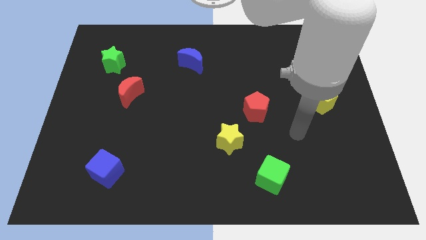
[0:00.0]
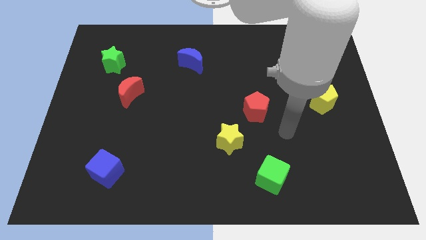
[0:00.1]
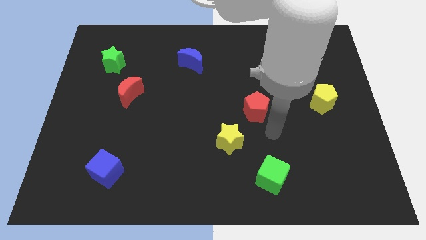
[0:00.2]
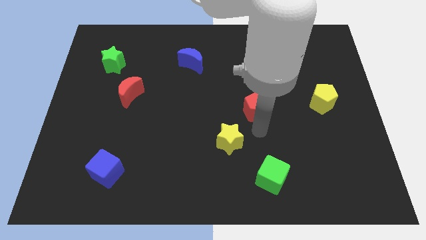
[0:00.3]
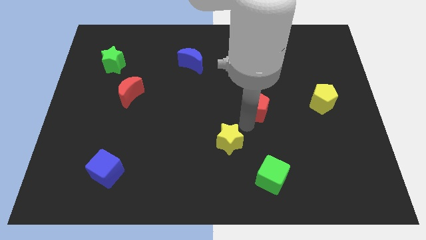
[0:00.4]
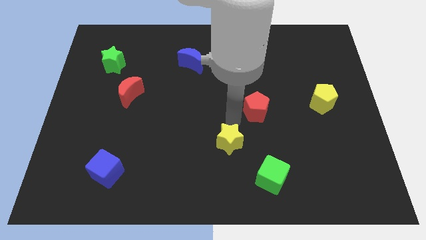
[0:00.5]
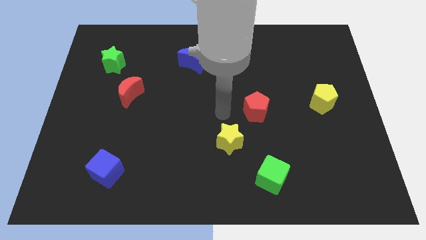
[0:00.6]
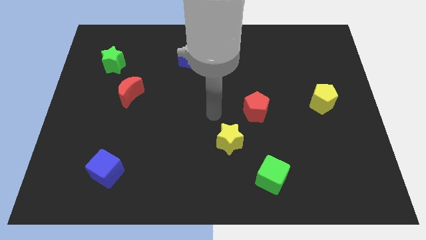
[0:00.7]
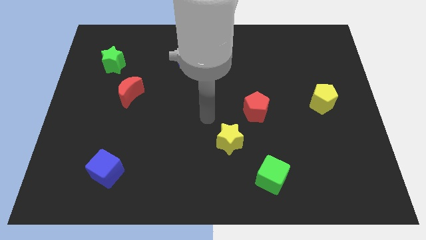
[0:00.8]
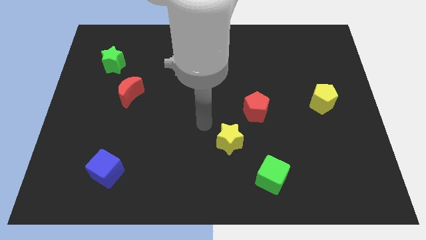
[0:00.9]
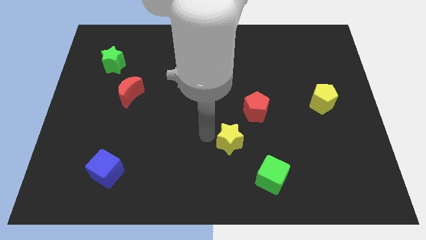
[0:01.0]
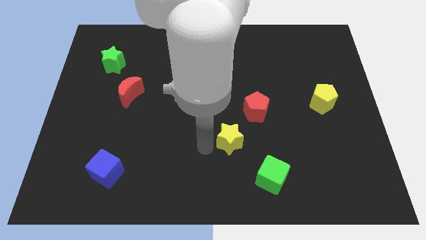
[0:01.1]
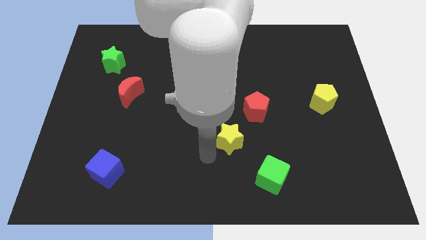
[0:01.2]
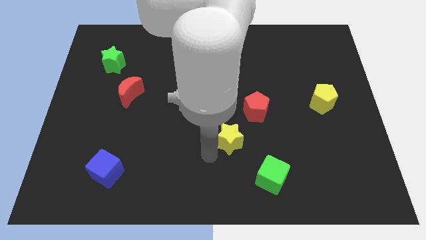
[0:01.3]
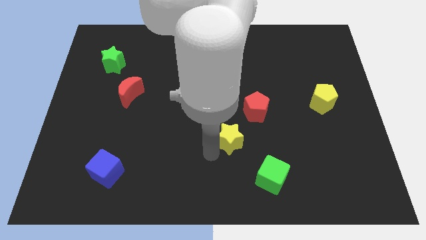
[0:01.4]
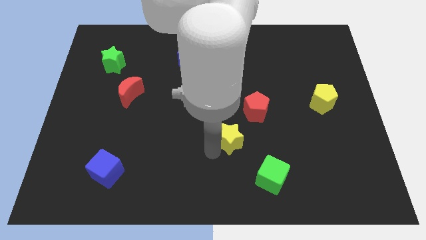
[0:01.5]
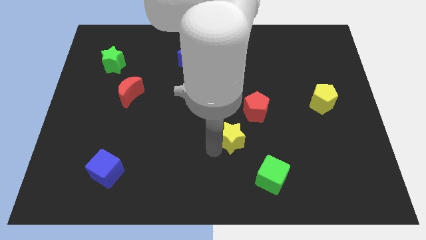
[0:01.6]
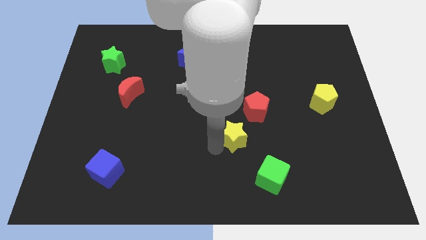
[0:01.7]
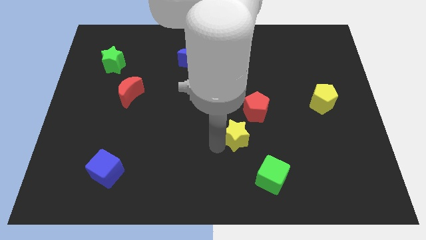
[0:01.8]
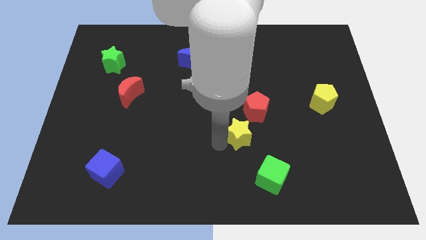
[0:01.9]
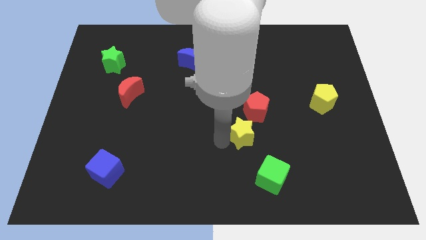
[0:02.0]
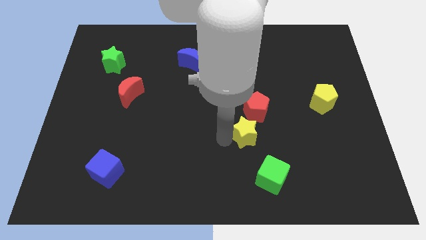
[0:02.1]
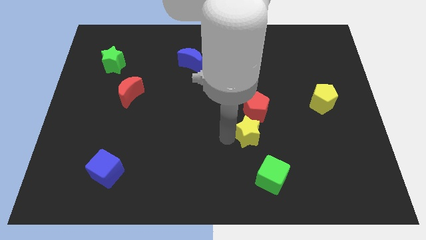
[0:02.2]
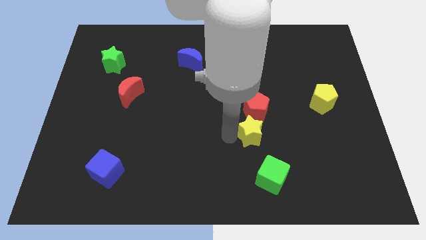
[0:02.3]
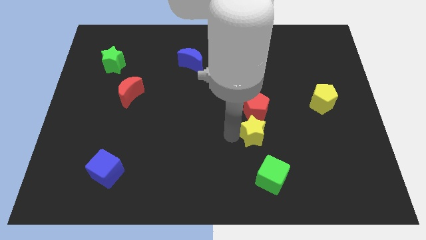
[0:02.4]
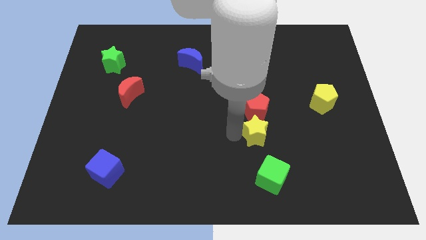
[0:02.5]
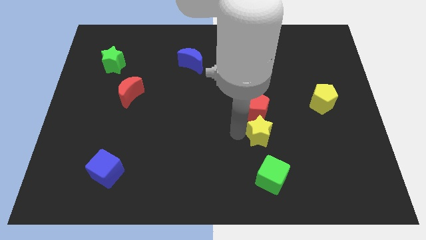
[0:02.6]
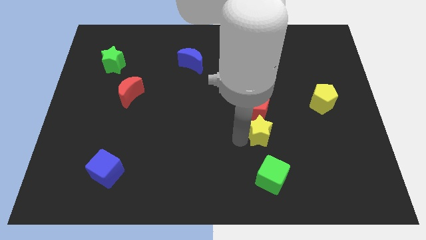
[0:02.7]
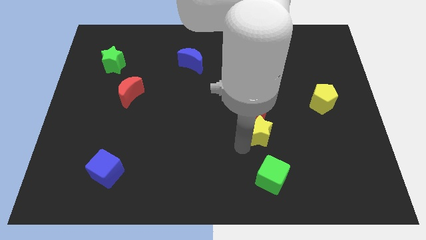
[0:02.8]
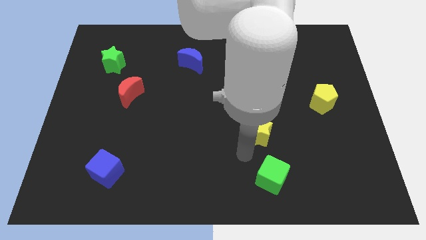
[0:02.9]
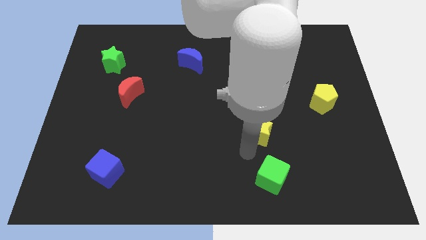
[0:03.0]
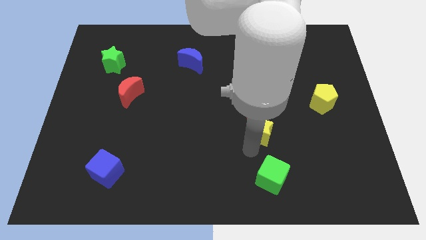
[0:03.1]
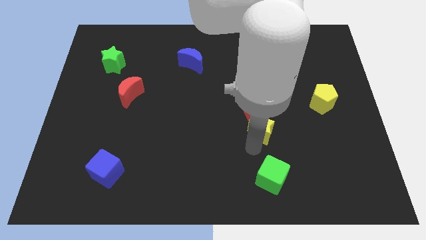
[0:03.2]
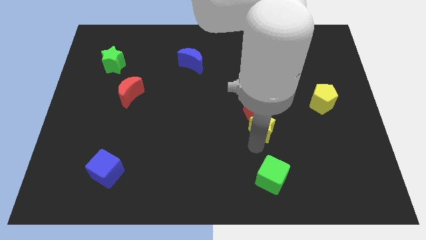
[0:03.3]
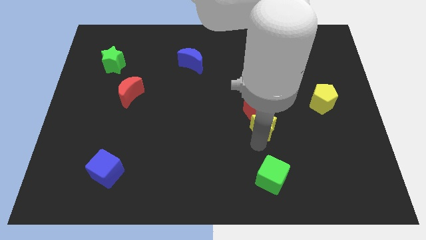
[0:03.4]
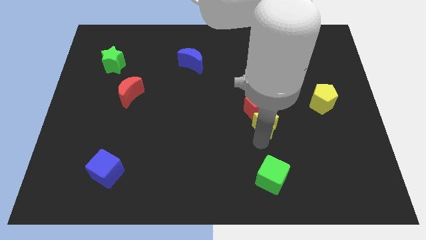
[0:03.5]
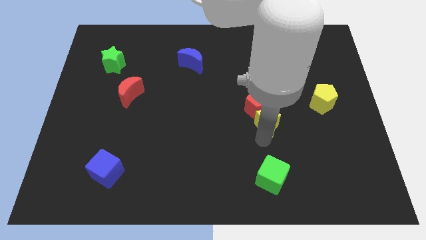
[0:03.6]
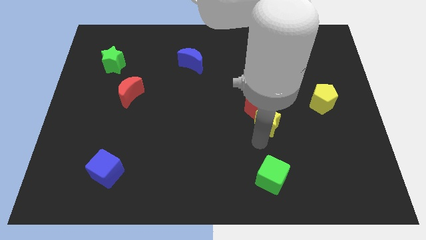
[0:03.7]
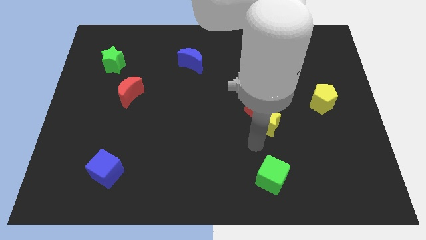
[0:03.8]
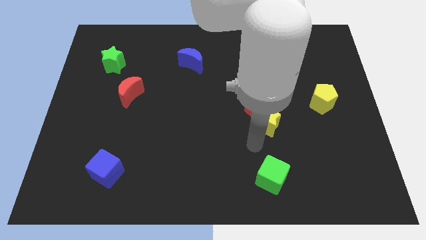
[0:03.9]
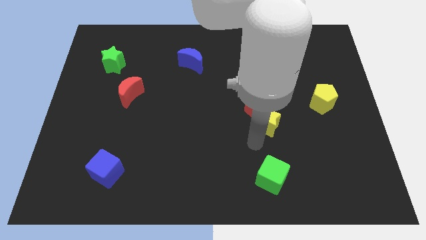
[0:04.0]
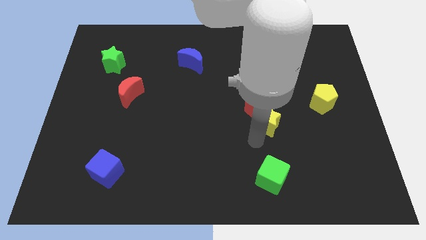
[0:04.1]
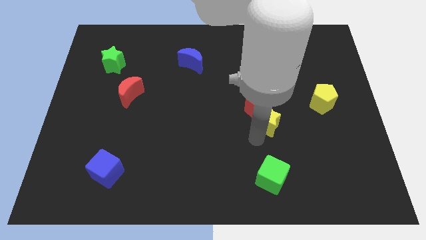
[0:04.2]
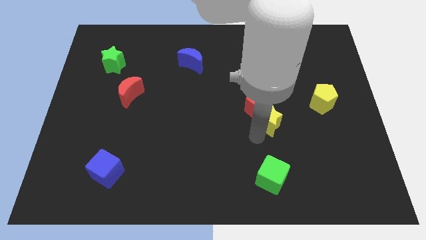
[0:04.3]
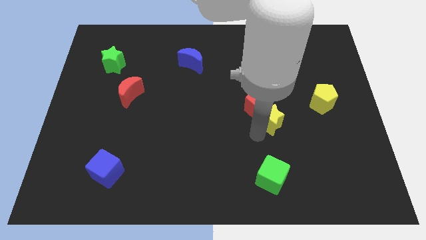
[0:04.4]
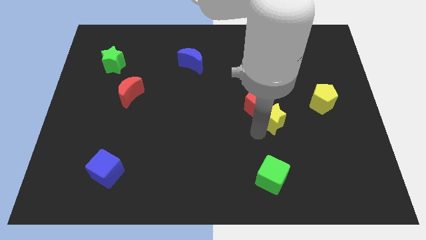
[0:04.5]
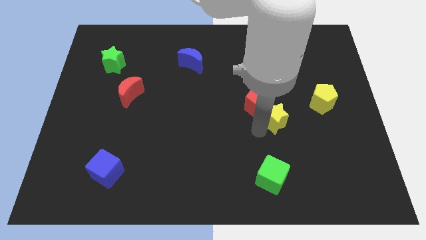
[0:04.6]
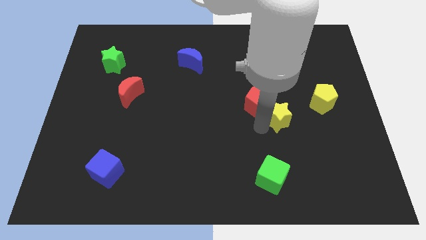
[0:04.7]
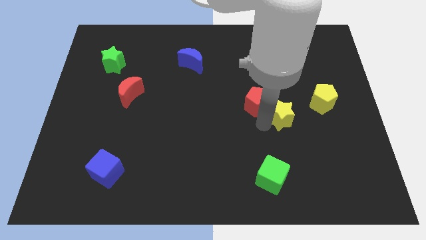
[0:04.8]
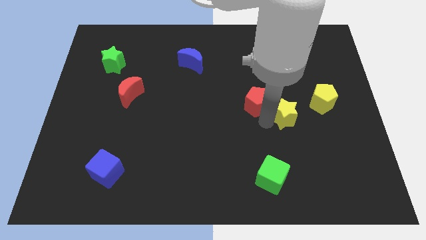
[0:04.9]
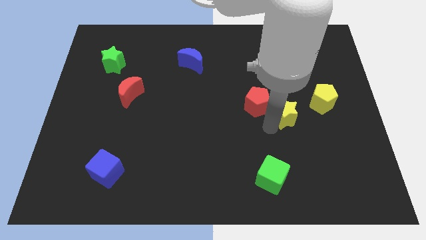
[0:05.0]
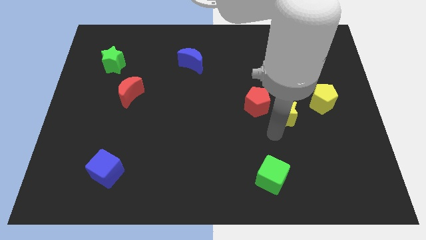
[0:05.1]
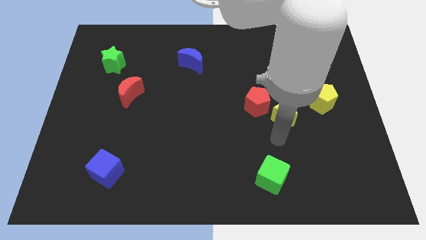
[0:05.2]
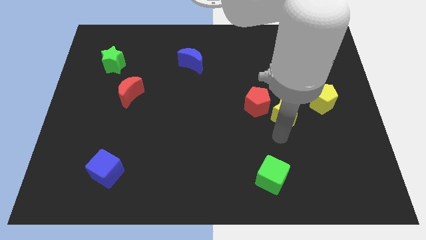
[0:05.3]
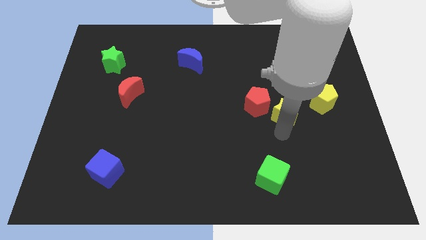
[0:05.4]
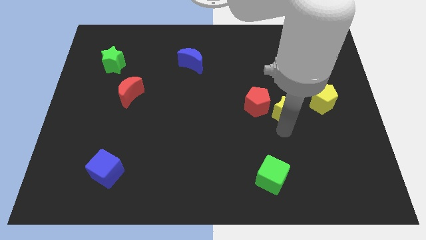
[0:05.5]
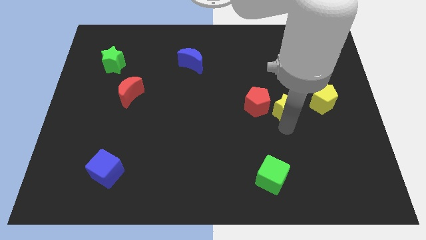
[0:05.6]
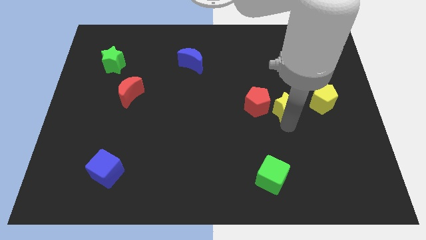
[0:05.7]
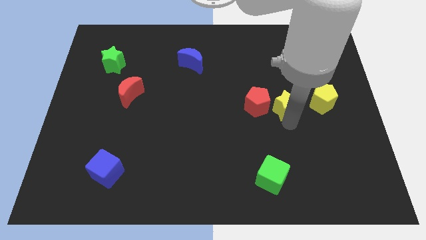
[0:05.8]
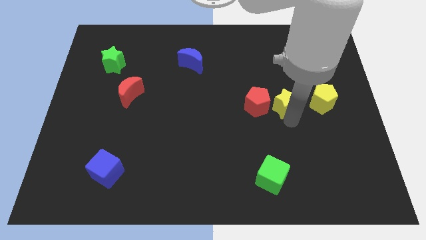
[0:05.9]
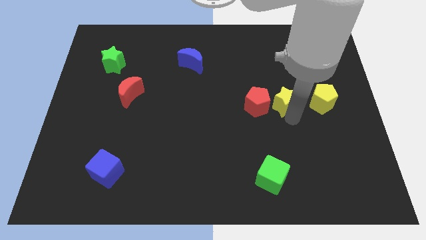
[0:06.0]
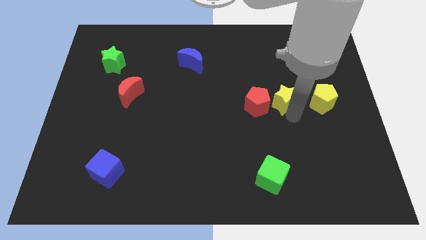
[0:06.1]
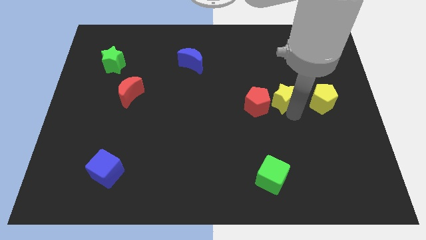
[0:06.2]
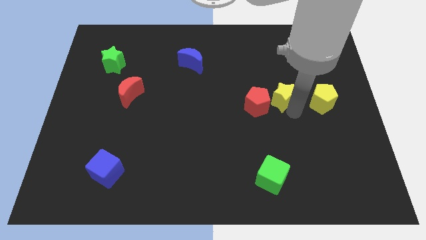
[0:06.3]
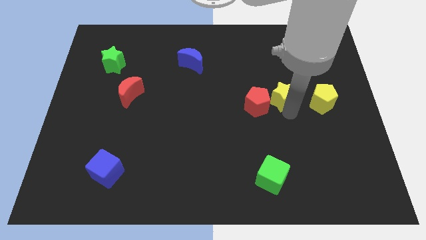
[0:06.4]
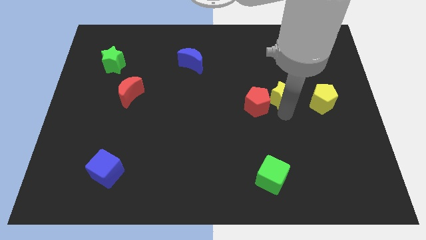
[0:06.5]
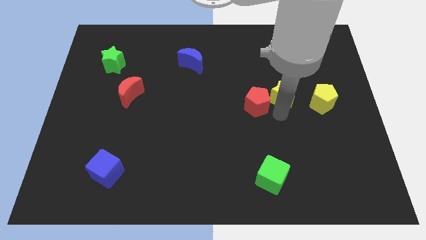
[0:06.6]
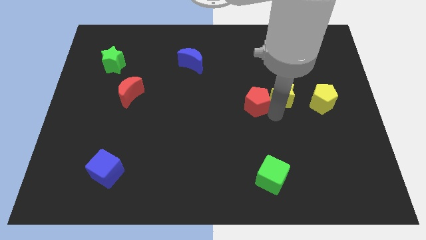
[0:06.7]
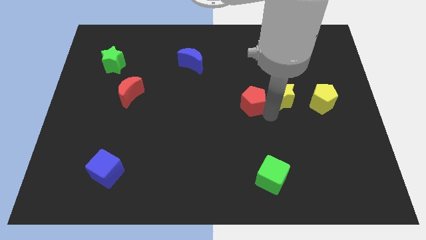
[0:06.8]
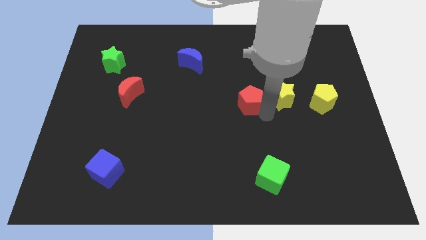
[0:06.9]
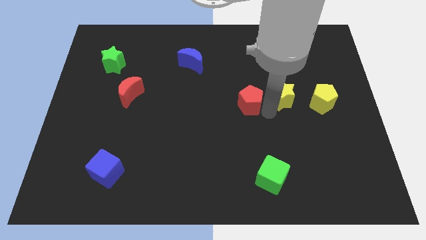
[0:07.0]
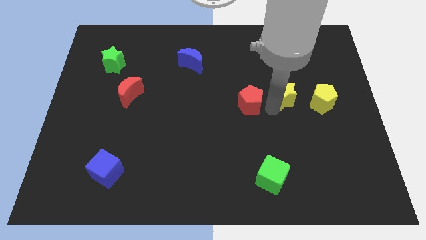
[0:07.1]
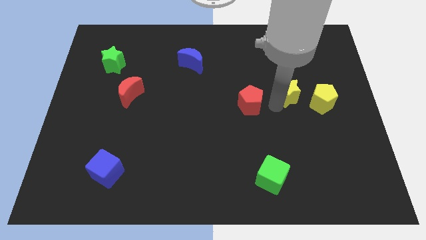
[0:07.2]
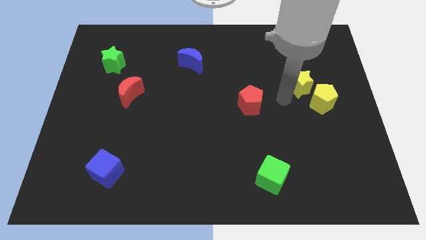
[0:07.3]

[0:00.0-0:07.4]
push the yellow star up and to the right diagonally
